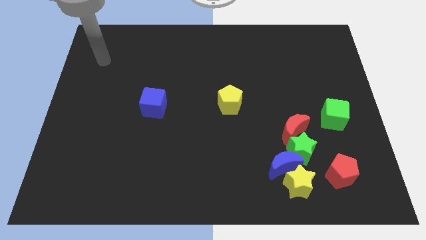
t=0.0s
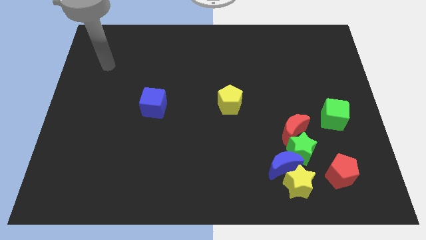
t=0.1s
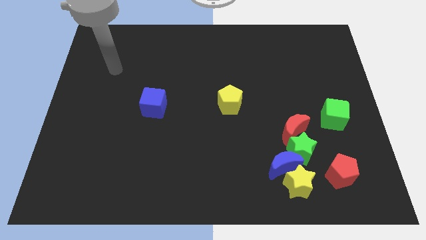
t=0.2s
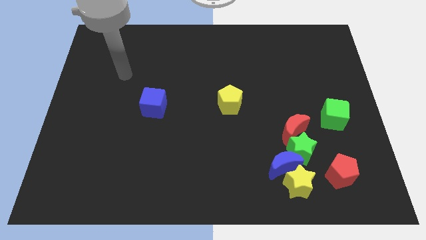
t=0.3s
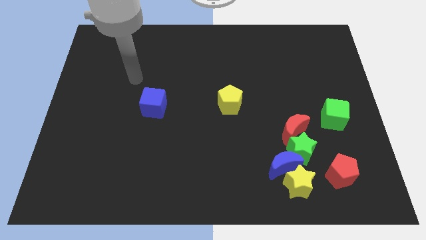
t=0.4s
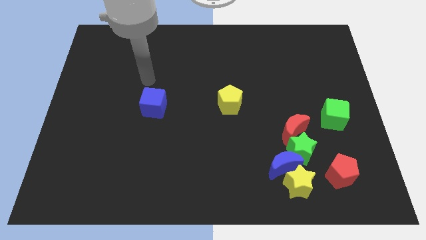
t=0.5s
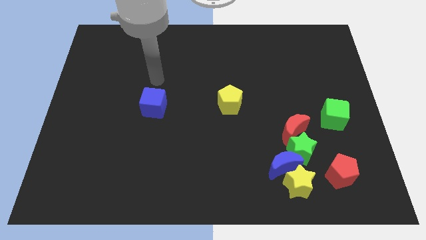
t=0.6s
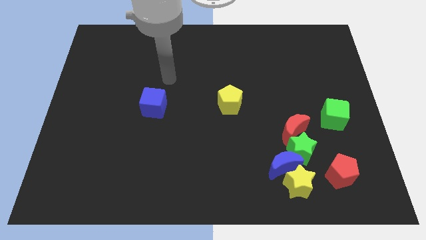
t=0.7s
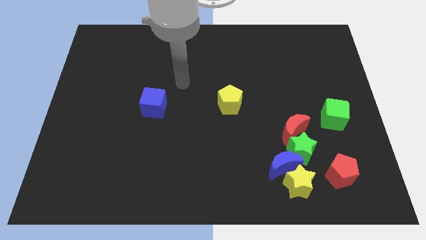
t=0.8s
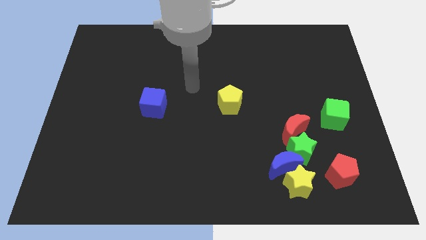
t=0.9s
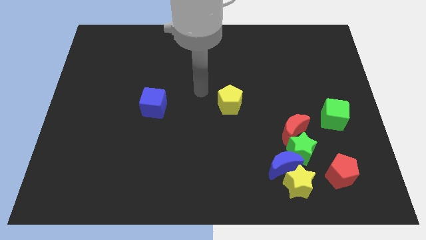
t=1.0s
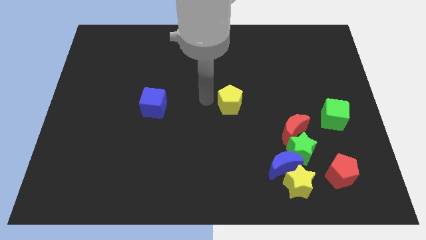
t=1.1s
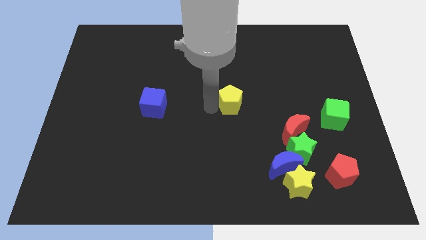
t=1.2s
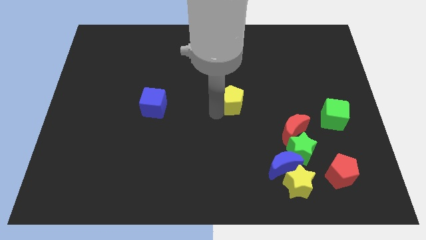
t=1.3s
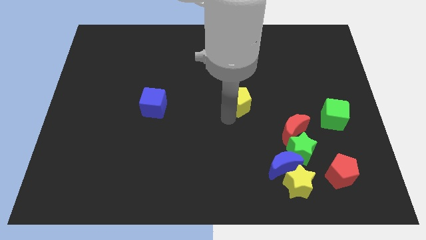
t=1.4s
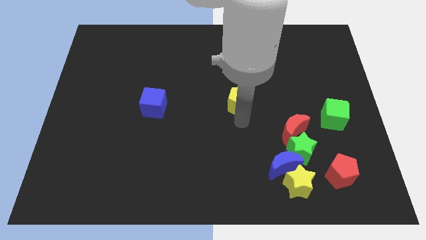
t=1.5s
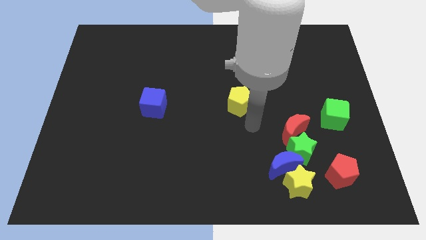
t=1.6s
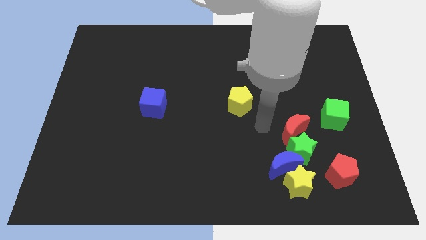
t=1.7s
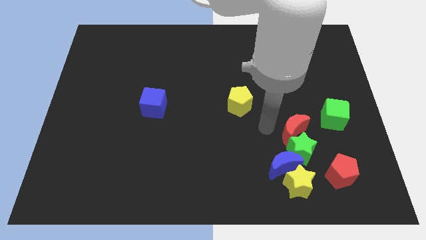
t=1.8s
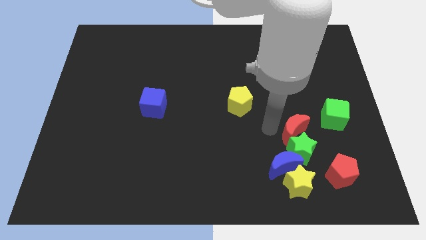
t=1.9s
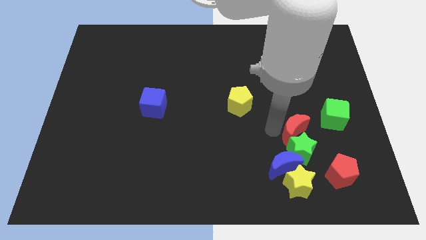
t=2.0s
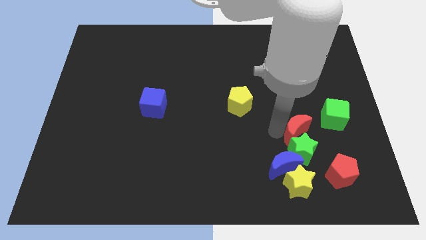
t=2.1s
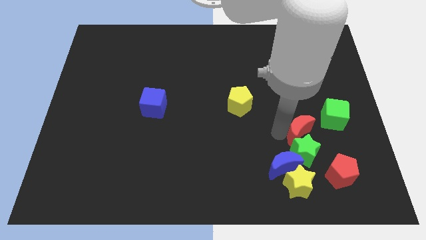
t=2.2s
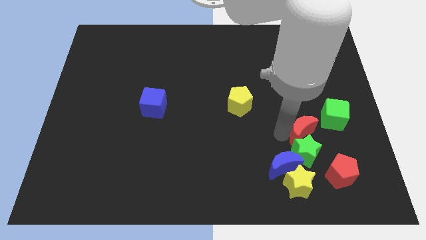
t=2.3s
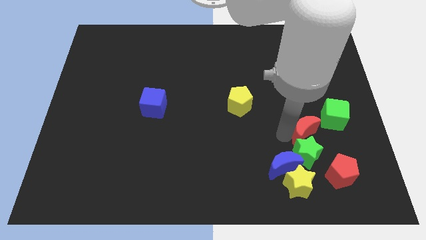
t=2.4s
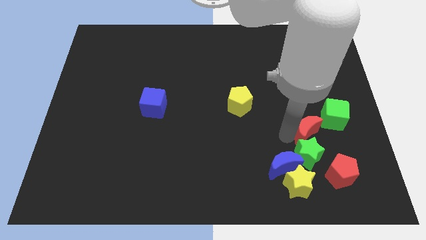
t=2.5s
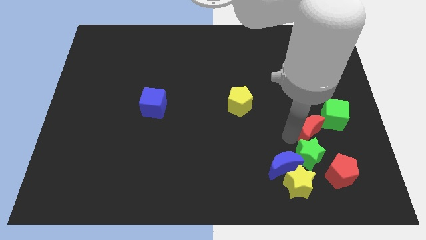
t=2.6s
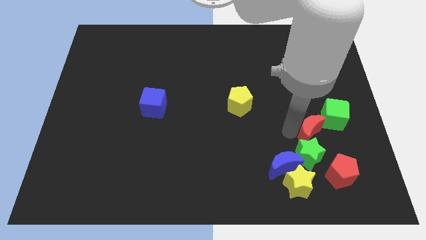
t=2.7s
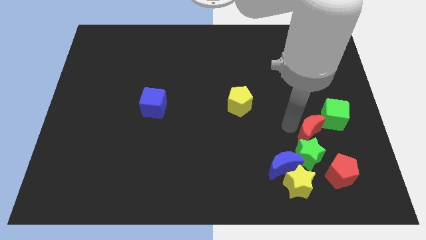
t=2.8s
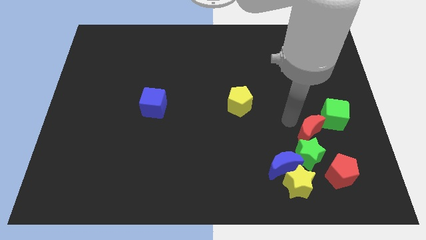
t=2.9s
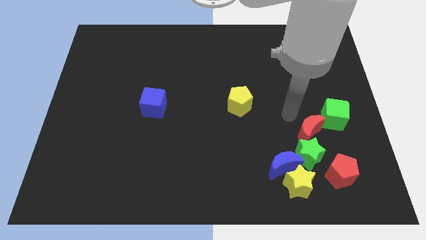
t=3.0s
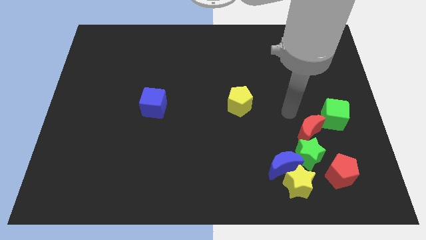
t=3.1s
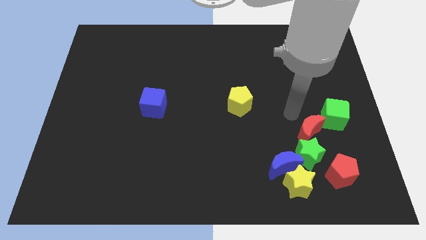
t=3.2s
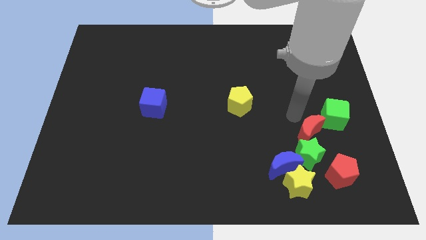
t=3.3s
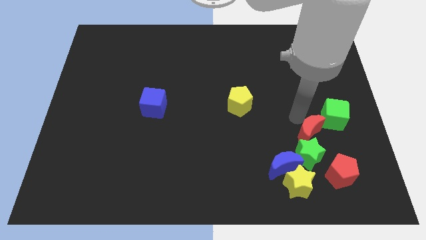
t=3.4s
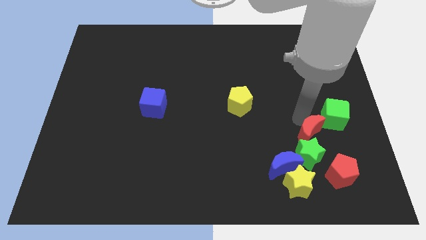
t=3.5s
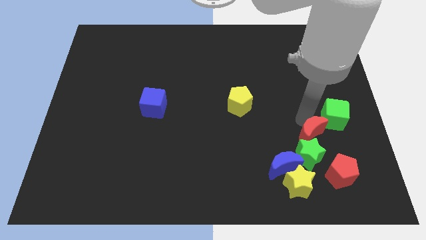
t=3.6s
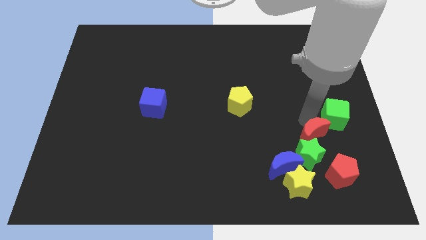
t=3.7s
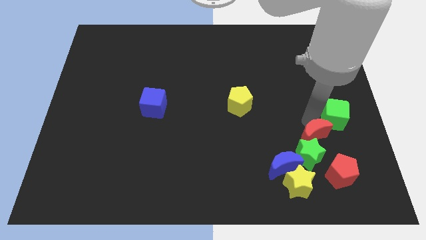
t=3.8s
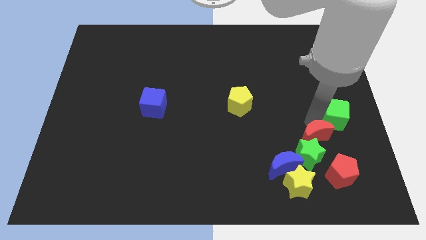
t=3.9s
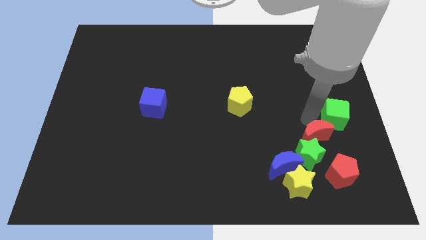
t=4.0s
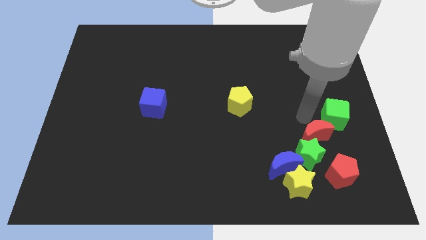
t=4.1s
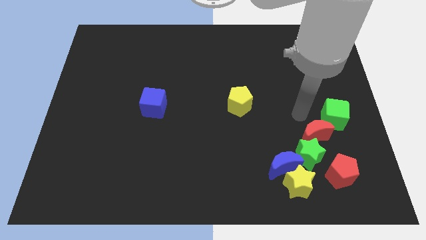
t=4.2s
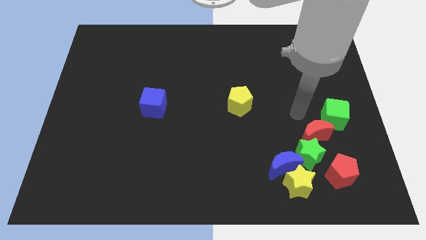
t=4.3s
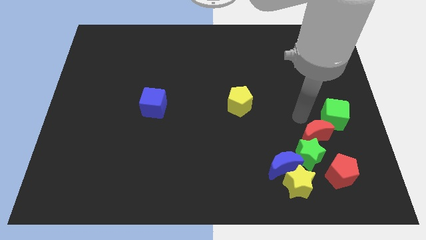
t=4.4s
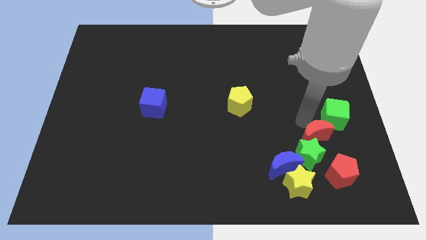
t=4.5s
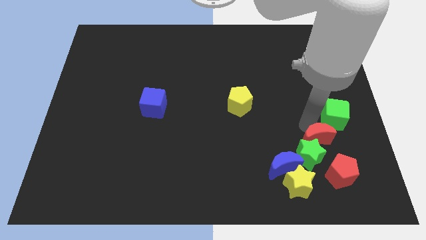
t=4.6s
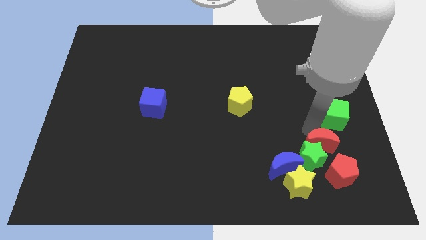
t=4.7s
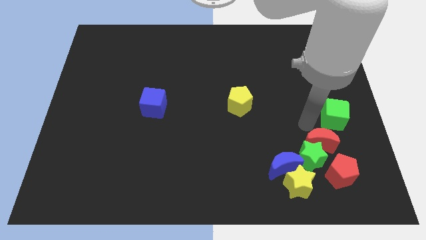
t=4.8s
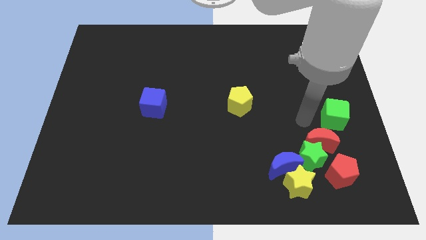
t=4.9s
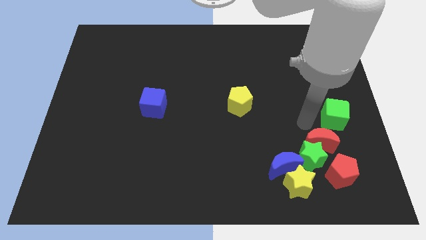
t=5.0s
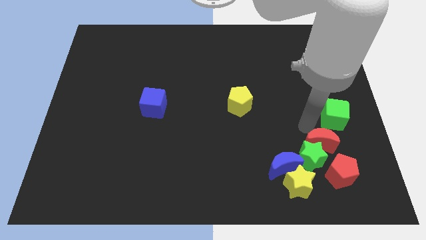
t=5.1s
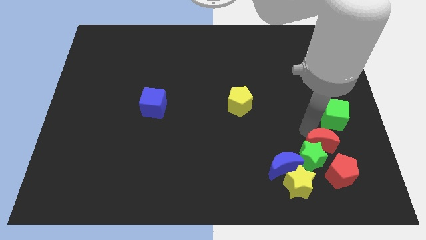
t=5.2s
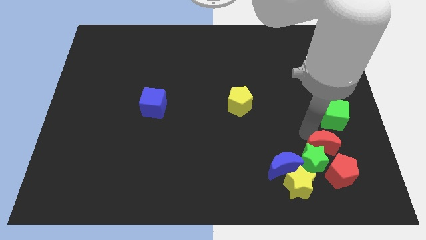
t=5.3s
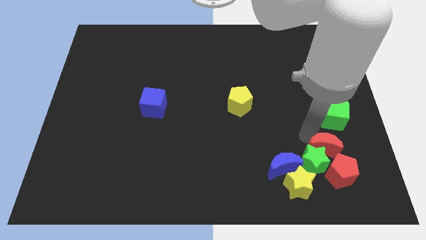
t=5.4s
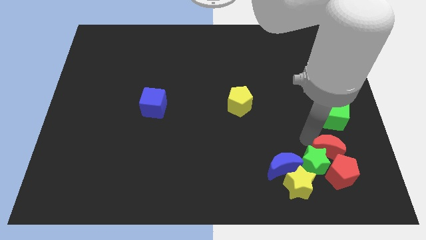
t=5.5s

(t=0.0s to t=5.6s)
move the red moon towards the red pentagon

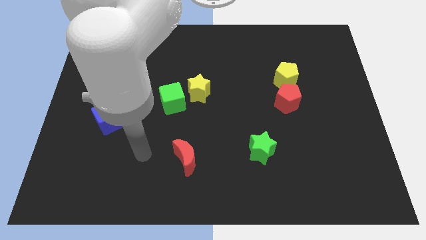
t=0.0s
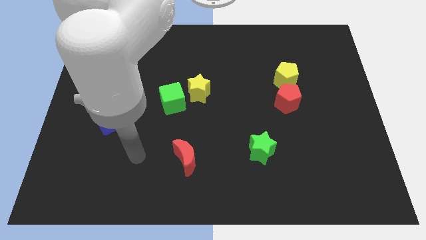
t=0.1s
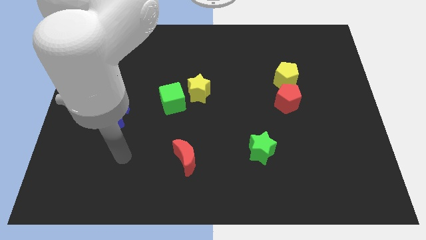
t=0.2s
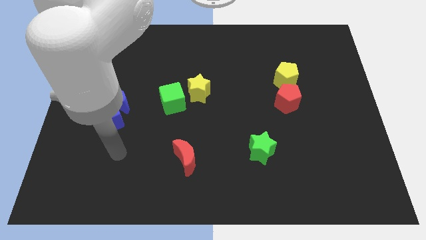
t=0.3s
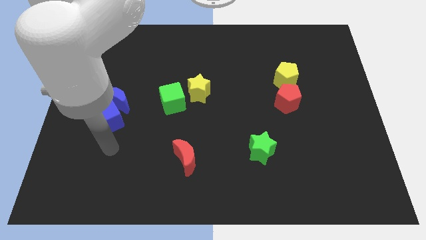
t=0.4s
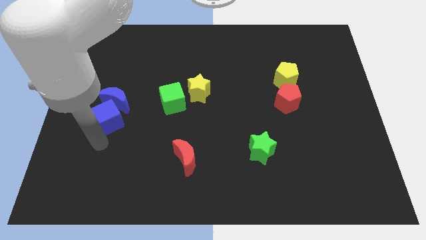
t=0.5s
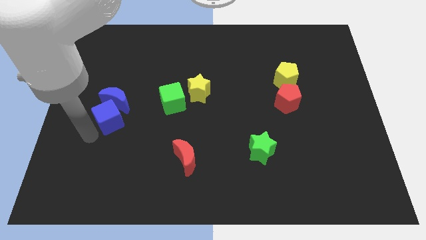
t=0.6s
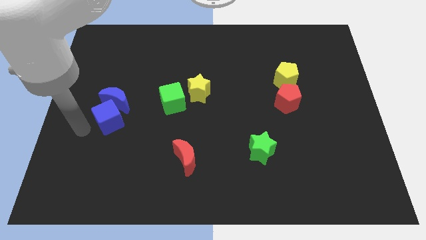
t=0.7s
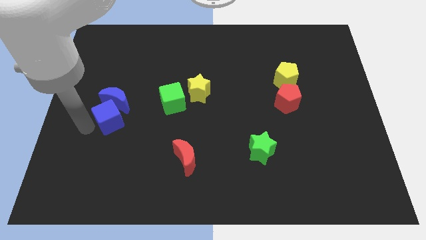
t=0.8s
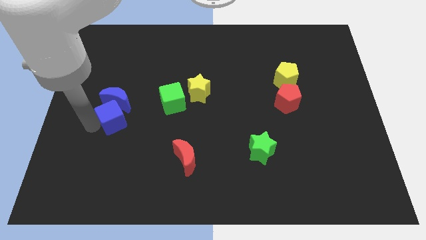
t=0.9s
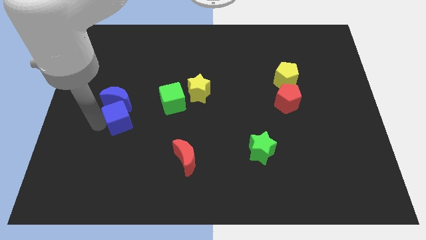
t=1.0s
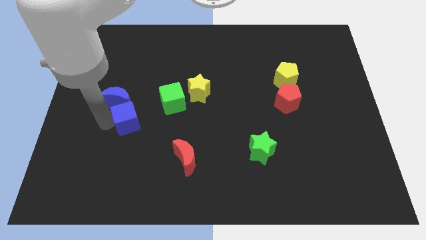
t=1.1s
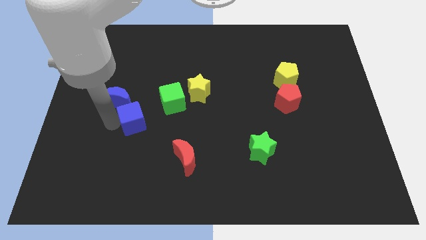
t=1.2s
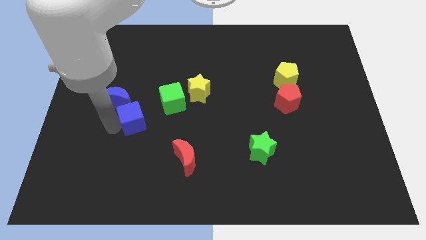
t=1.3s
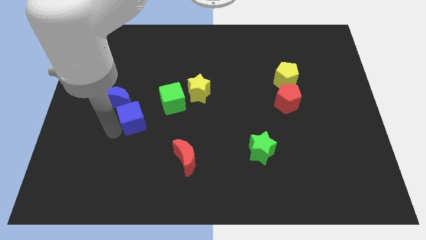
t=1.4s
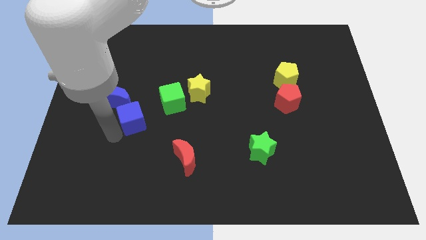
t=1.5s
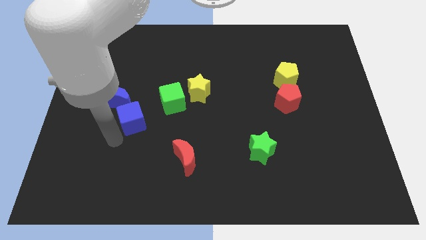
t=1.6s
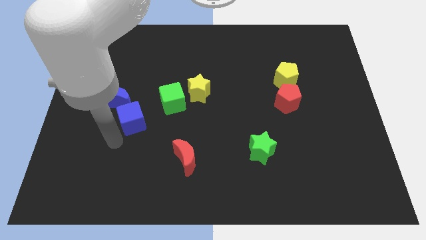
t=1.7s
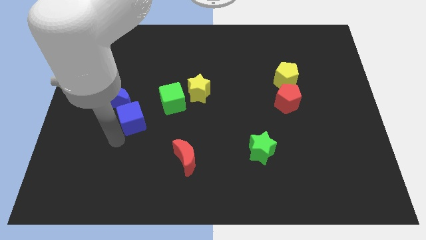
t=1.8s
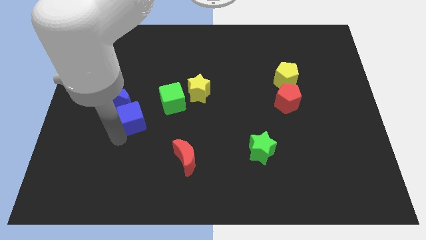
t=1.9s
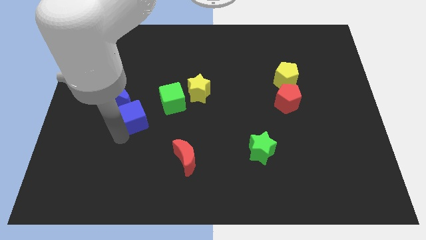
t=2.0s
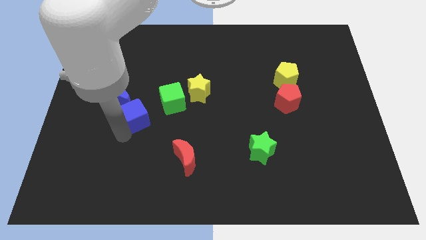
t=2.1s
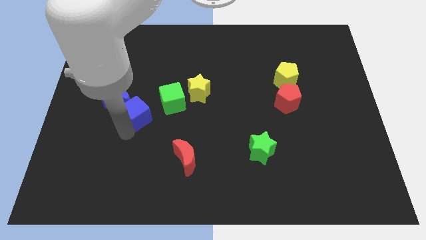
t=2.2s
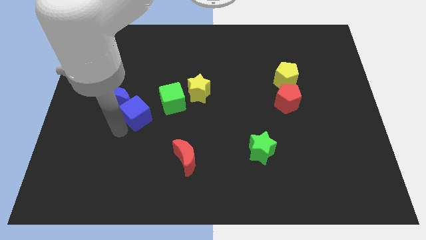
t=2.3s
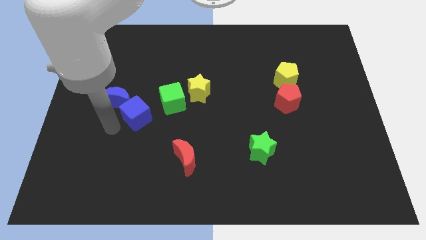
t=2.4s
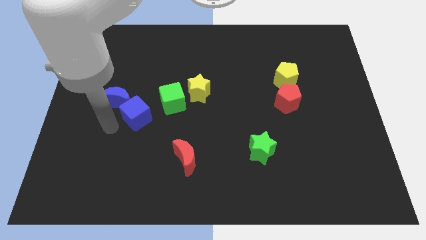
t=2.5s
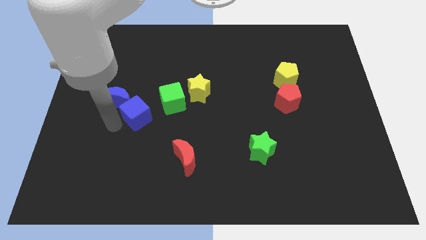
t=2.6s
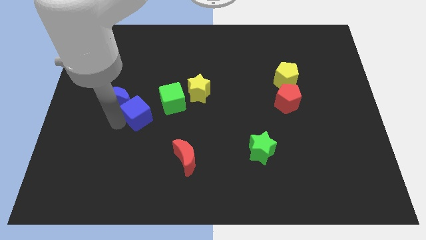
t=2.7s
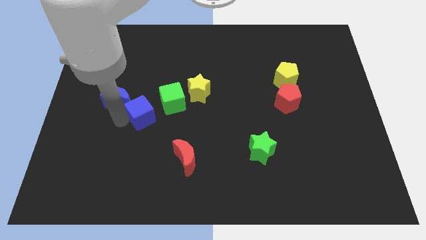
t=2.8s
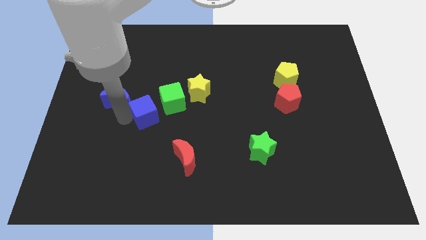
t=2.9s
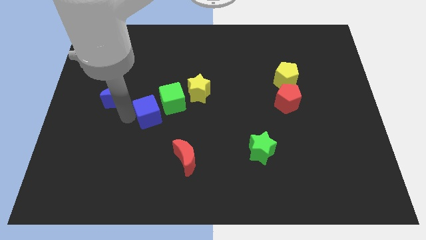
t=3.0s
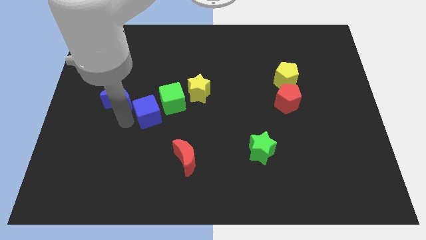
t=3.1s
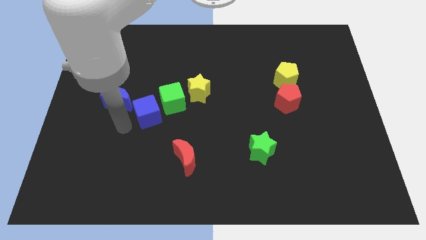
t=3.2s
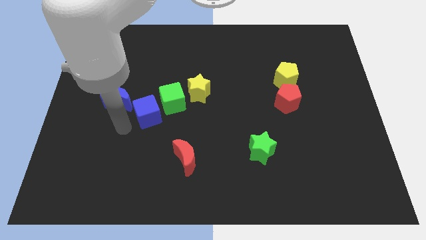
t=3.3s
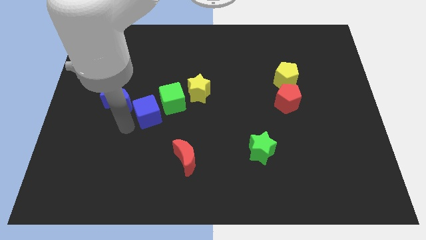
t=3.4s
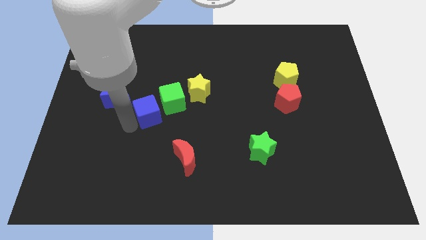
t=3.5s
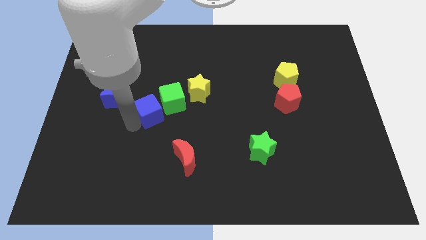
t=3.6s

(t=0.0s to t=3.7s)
put the blue cube close to the green cube
